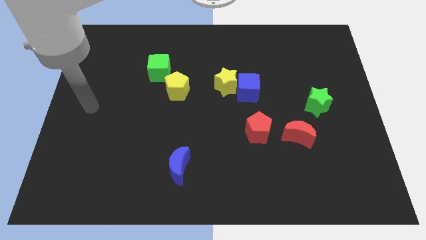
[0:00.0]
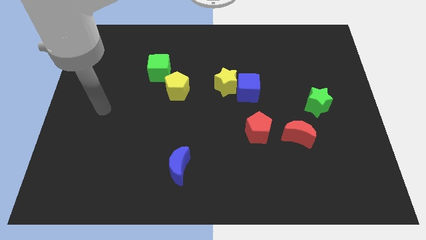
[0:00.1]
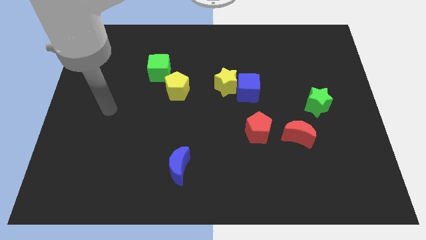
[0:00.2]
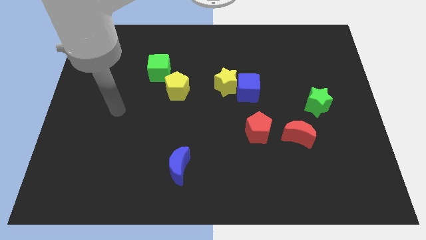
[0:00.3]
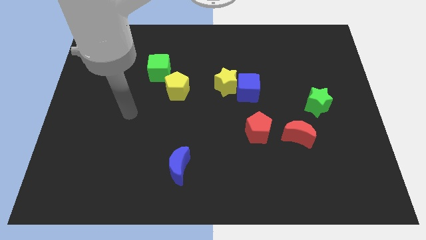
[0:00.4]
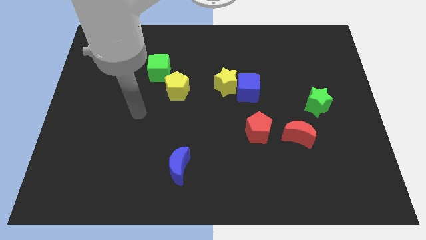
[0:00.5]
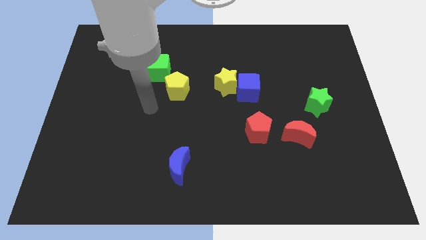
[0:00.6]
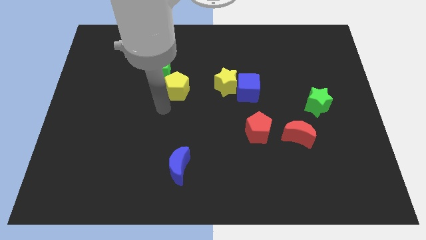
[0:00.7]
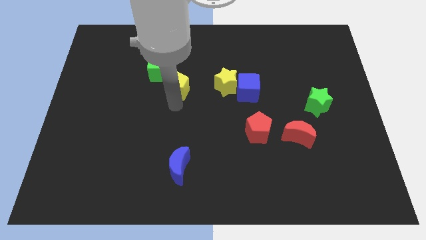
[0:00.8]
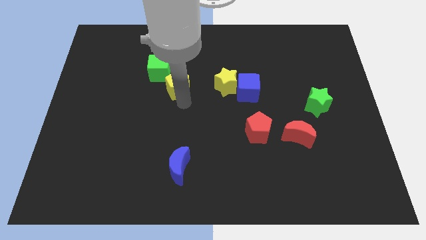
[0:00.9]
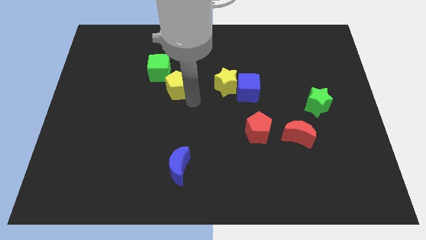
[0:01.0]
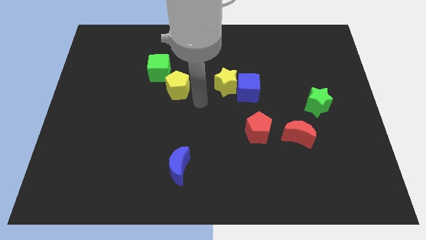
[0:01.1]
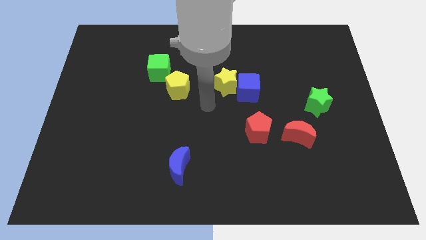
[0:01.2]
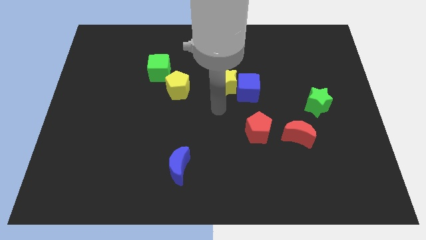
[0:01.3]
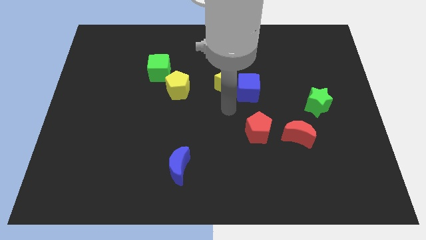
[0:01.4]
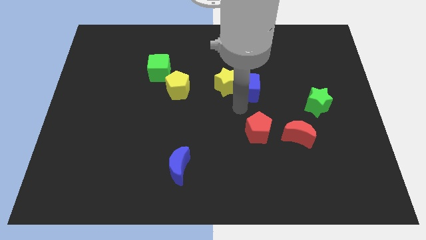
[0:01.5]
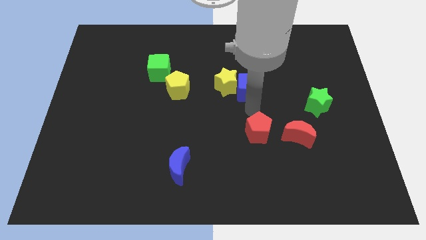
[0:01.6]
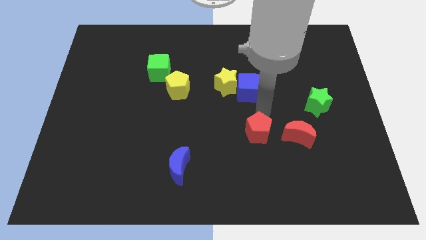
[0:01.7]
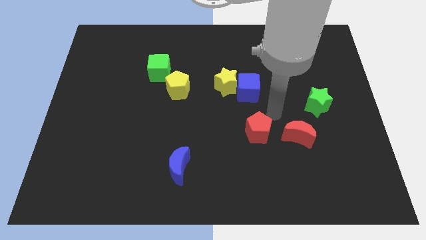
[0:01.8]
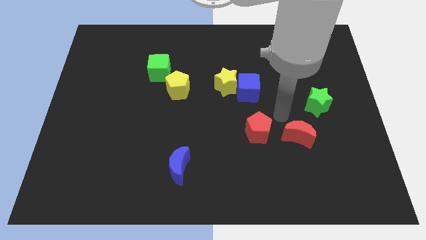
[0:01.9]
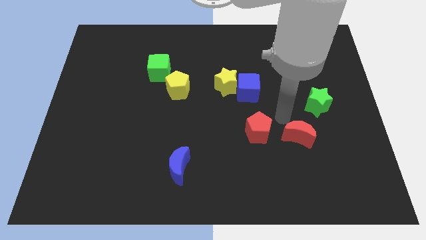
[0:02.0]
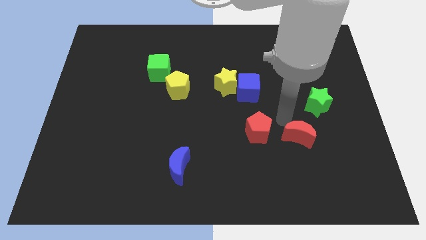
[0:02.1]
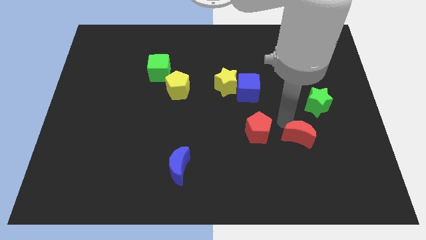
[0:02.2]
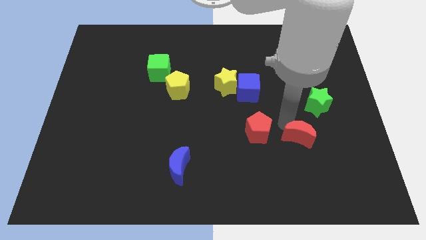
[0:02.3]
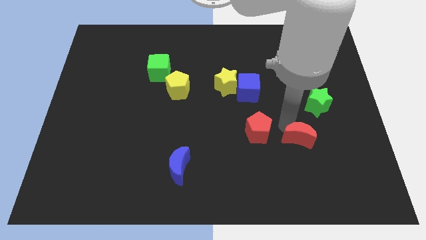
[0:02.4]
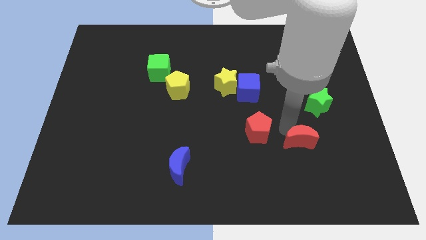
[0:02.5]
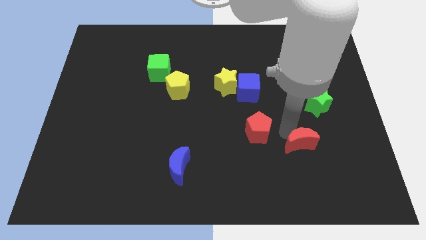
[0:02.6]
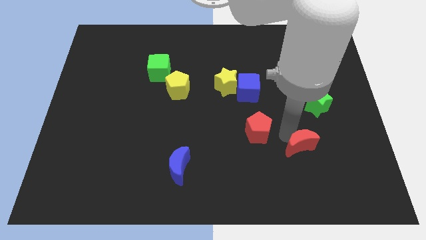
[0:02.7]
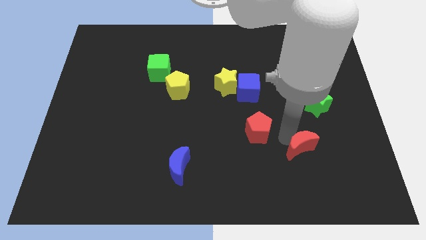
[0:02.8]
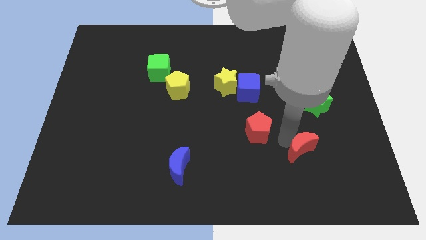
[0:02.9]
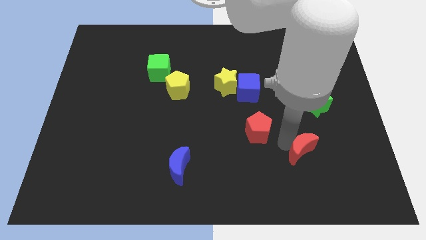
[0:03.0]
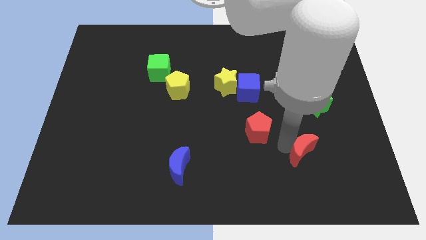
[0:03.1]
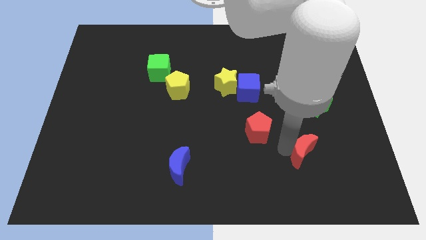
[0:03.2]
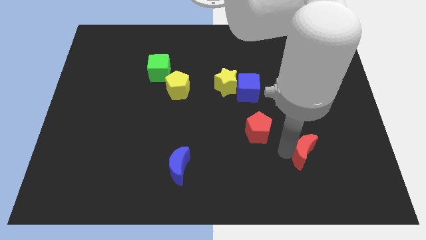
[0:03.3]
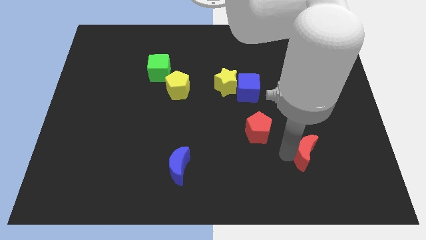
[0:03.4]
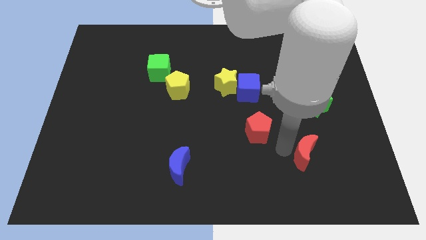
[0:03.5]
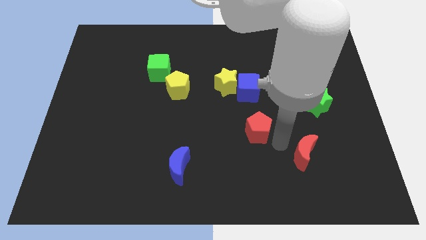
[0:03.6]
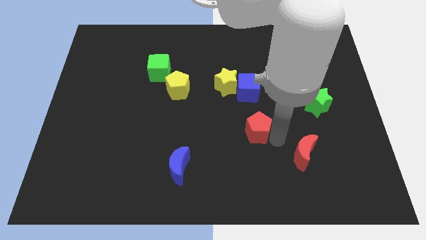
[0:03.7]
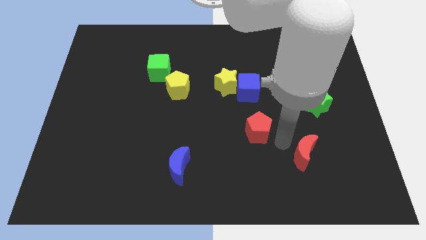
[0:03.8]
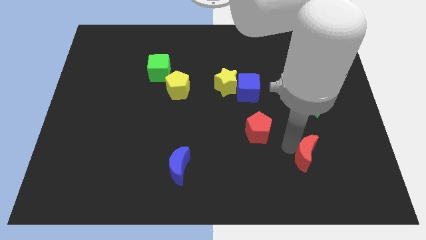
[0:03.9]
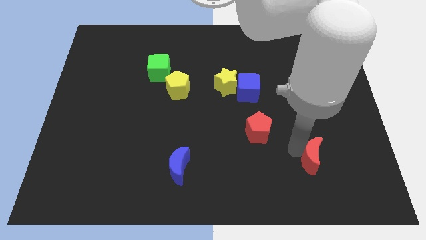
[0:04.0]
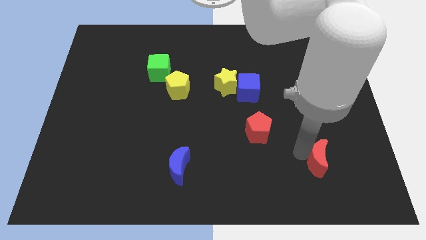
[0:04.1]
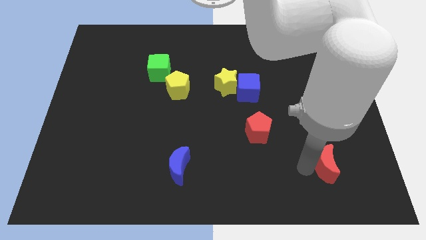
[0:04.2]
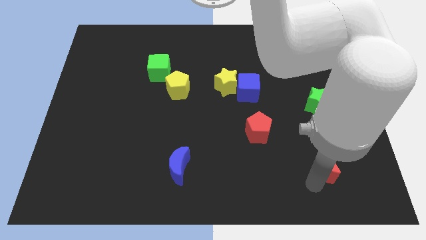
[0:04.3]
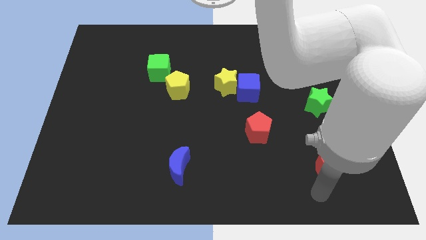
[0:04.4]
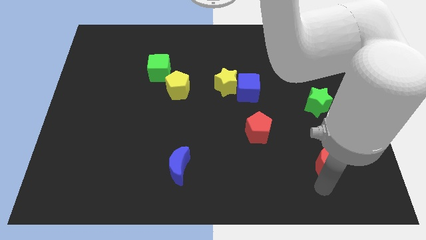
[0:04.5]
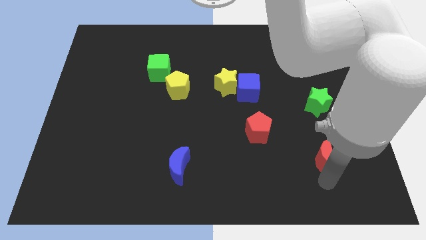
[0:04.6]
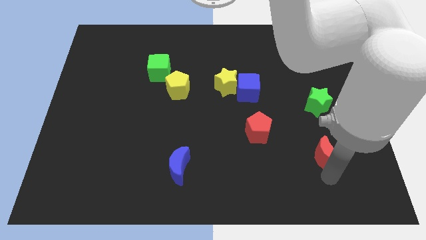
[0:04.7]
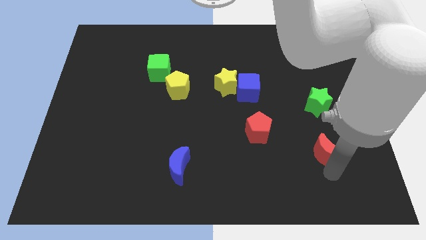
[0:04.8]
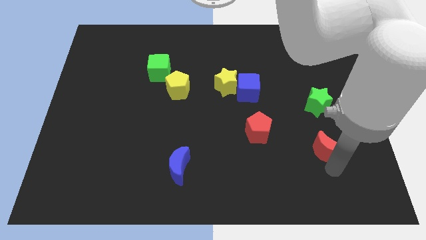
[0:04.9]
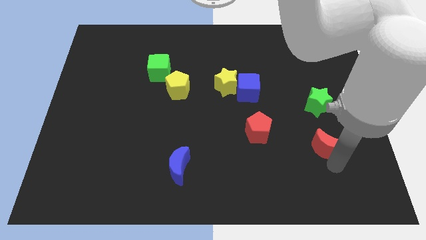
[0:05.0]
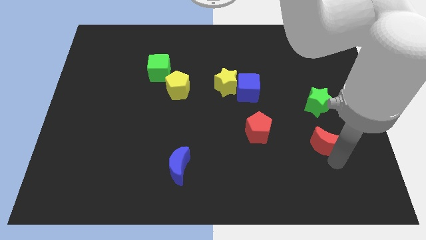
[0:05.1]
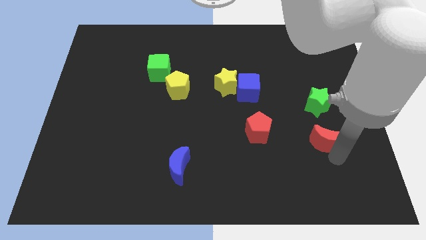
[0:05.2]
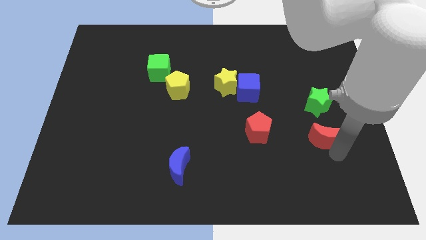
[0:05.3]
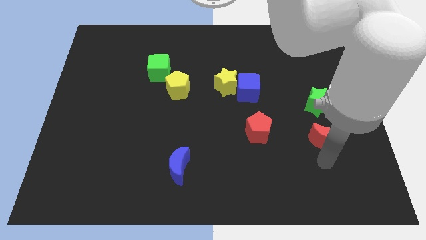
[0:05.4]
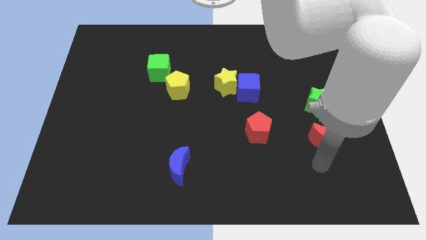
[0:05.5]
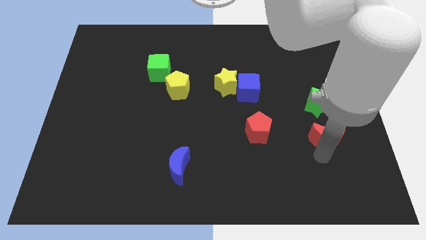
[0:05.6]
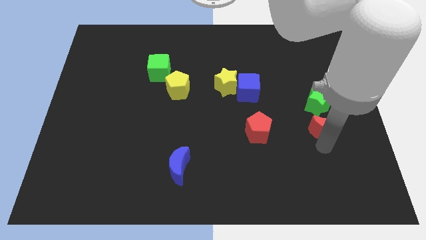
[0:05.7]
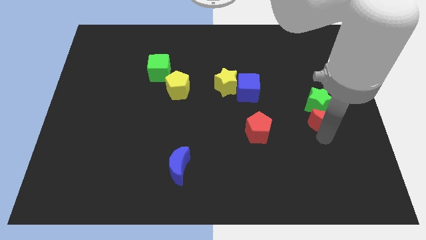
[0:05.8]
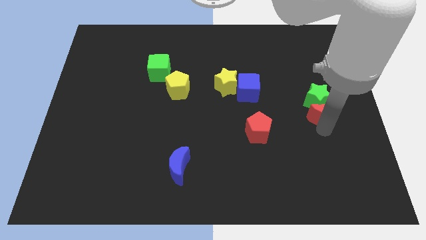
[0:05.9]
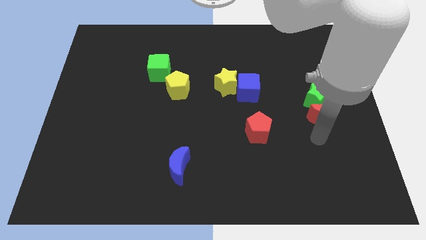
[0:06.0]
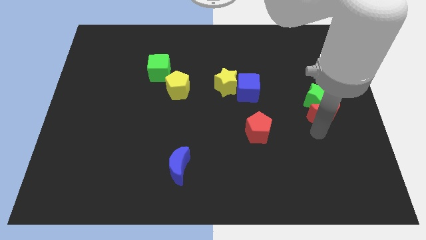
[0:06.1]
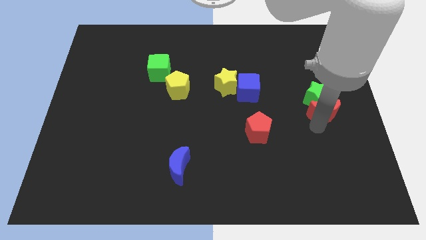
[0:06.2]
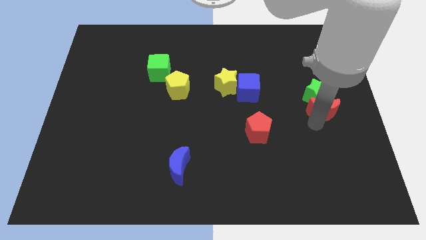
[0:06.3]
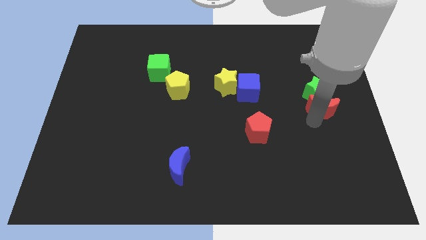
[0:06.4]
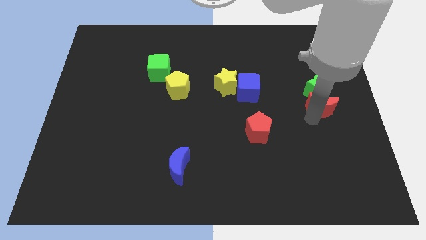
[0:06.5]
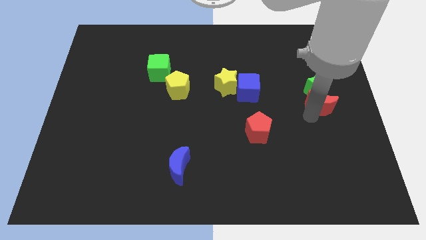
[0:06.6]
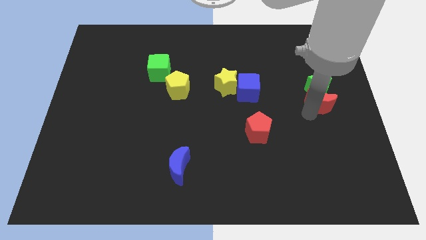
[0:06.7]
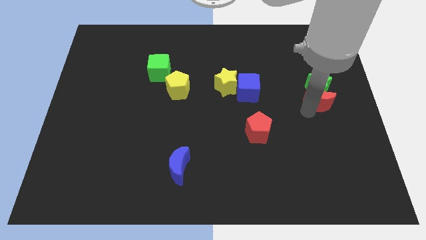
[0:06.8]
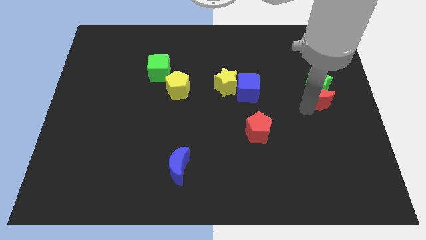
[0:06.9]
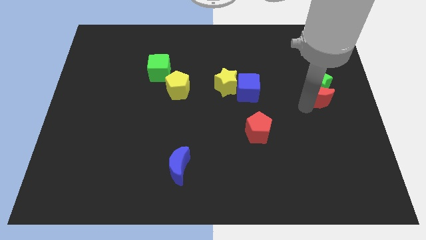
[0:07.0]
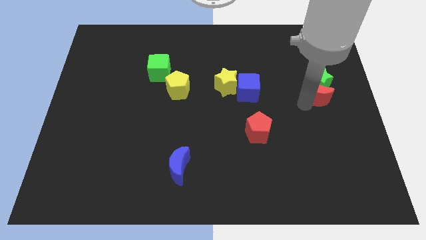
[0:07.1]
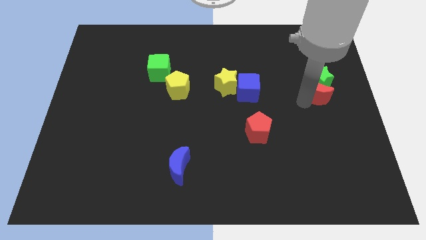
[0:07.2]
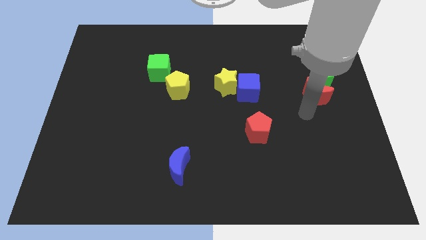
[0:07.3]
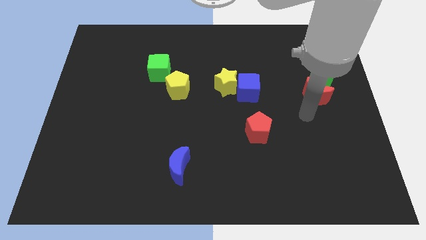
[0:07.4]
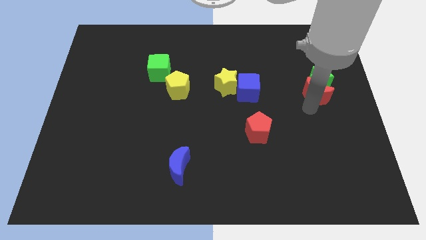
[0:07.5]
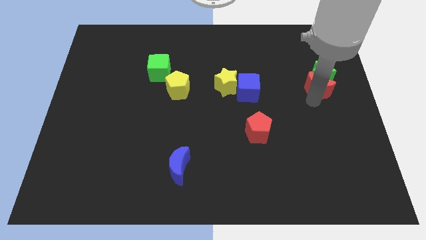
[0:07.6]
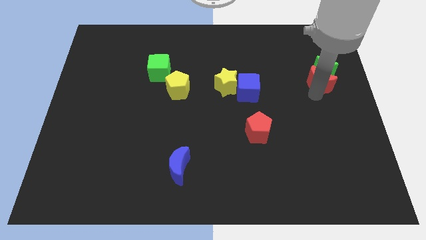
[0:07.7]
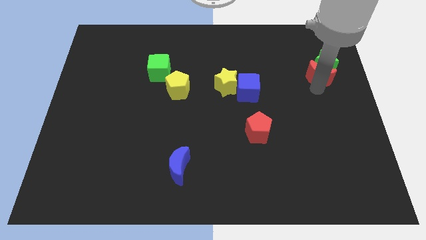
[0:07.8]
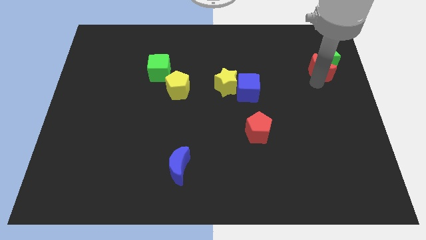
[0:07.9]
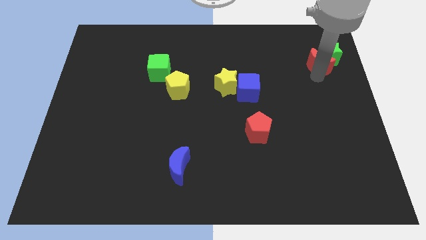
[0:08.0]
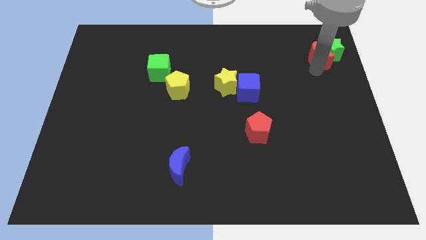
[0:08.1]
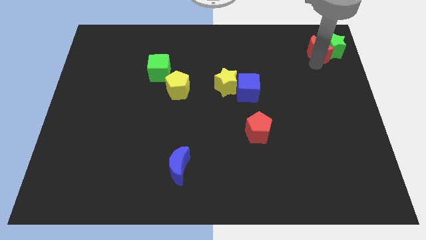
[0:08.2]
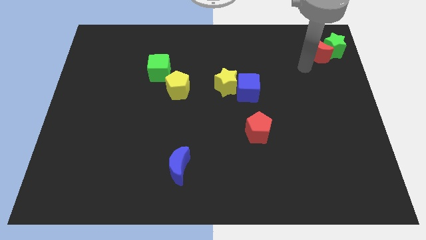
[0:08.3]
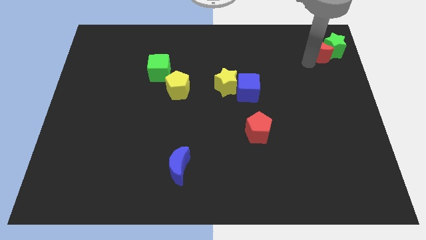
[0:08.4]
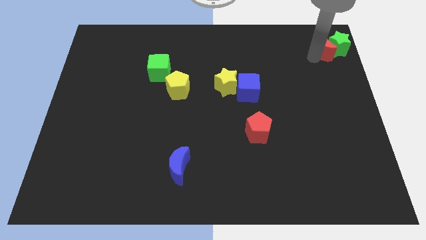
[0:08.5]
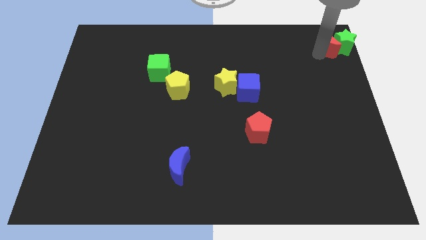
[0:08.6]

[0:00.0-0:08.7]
push the red moon to the top right corner
